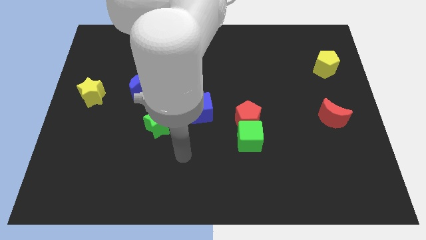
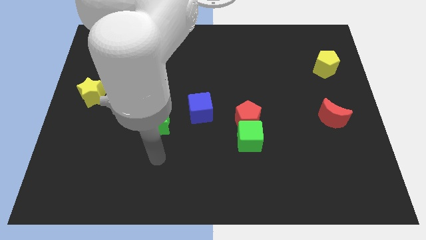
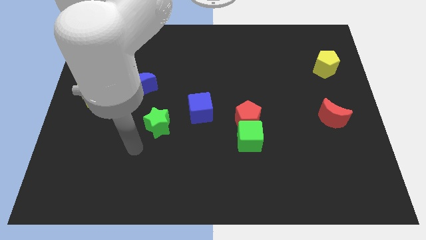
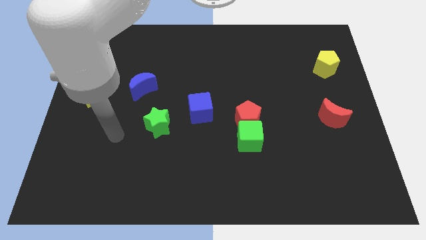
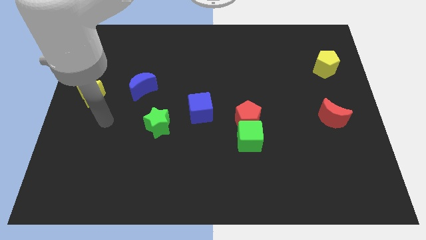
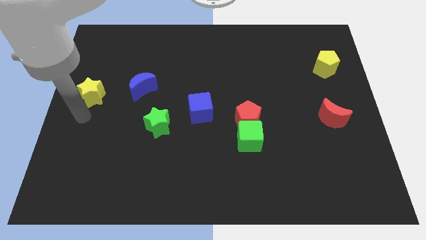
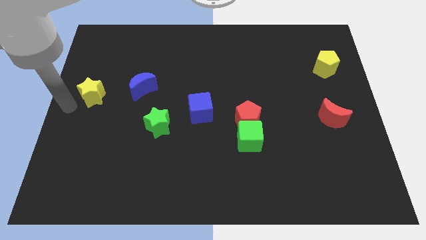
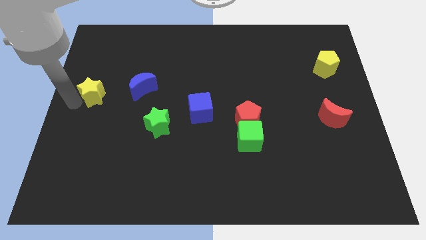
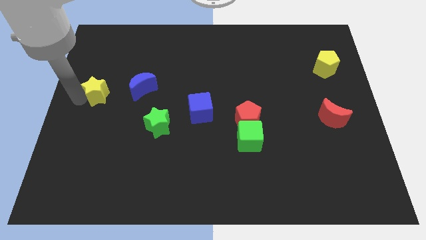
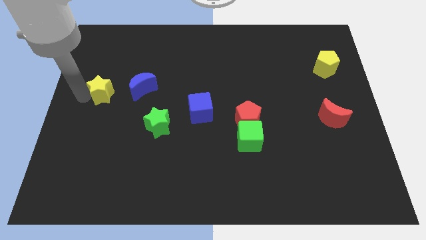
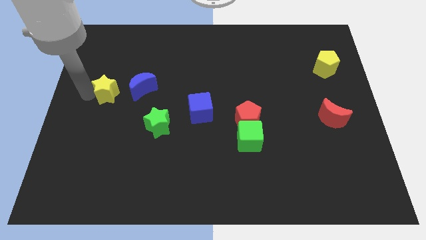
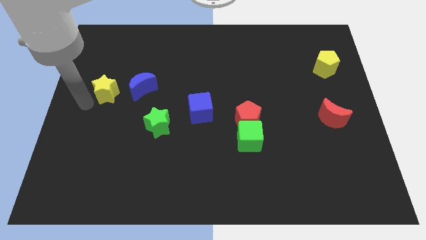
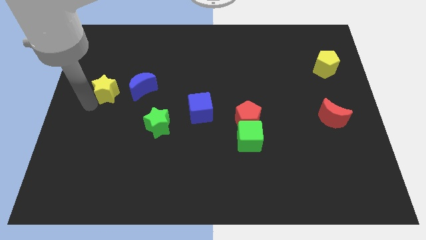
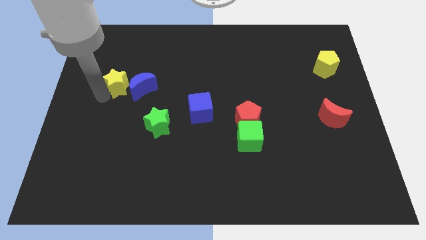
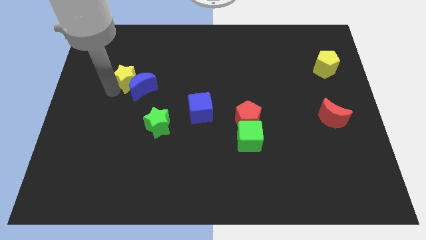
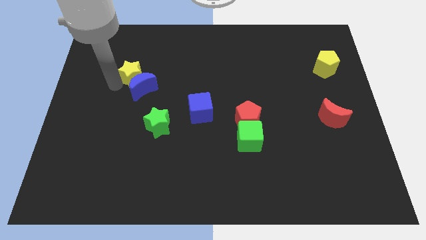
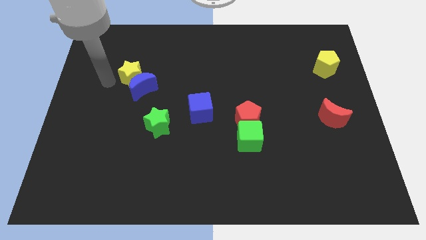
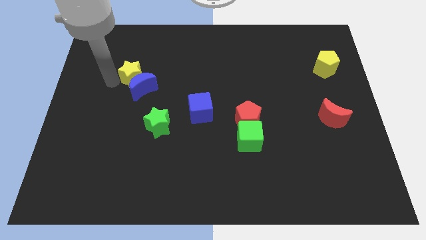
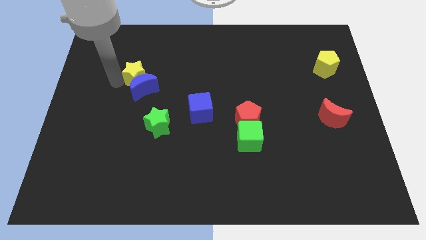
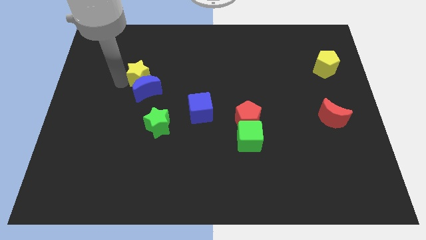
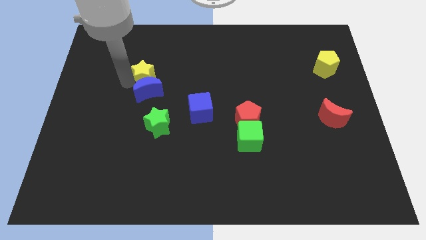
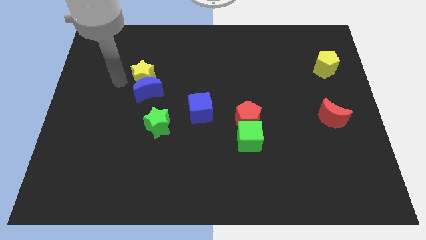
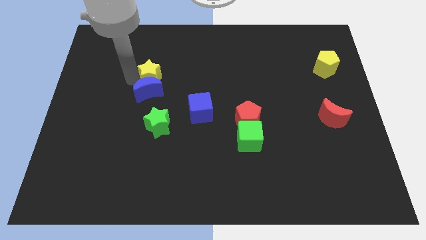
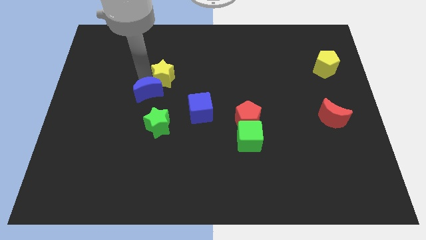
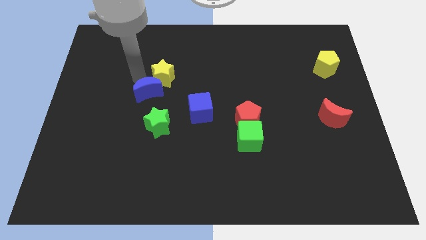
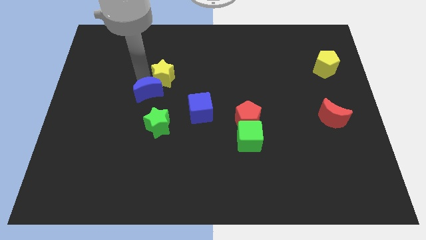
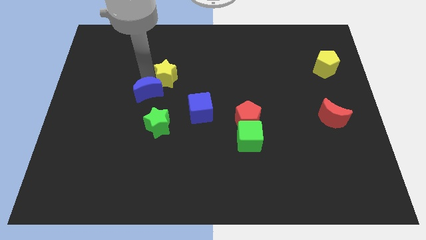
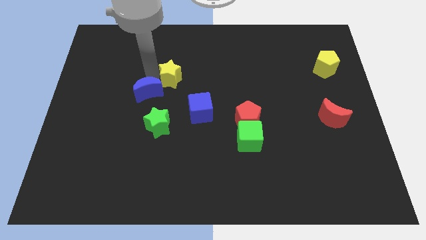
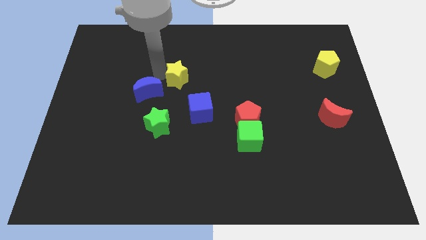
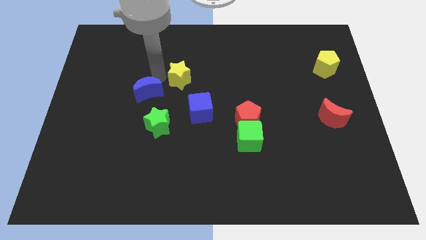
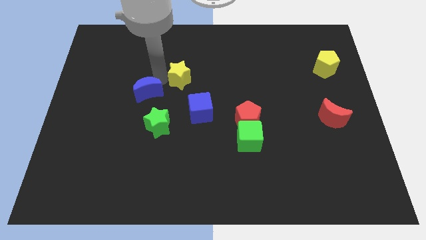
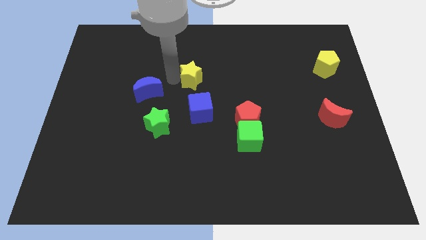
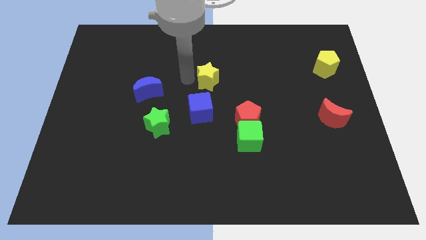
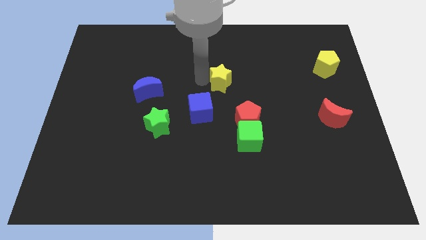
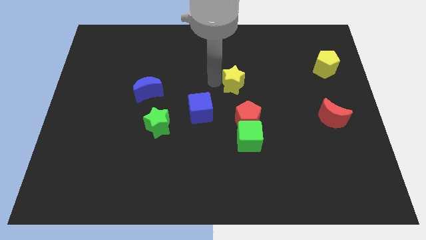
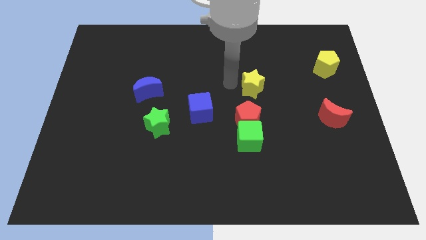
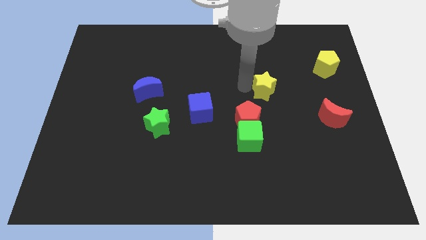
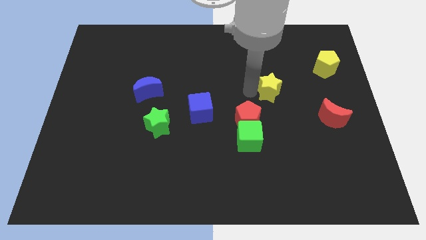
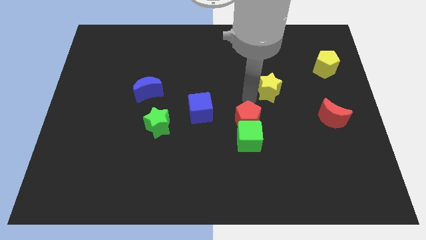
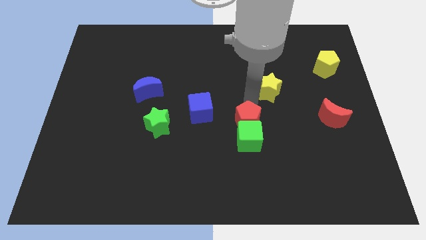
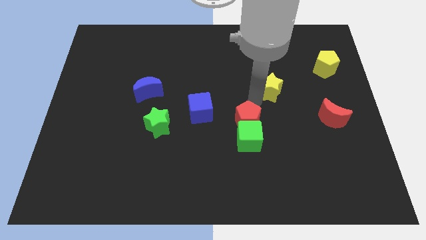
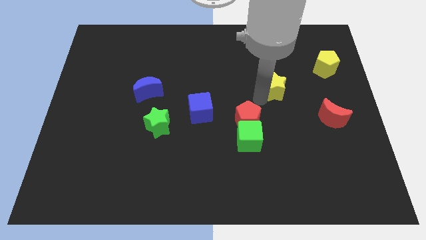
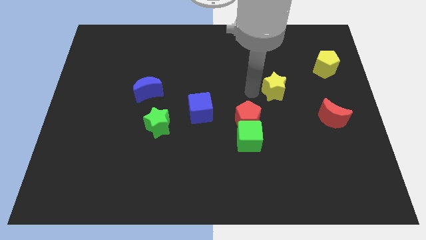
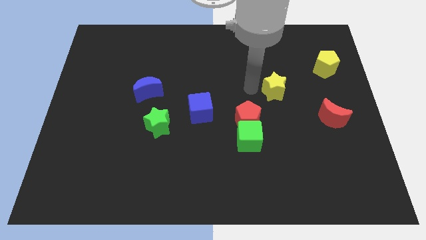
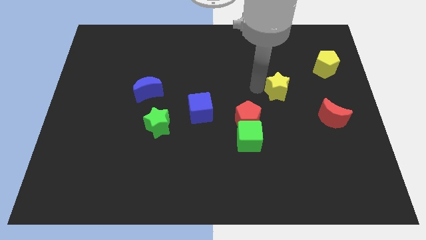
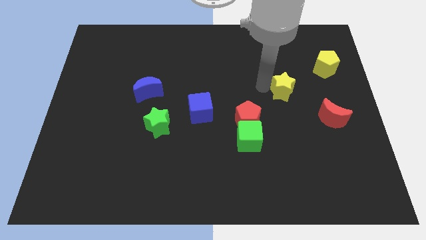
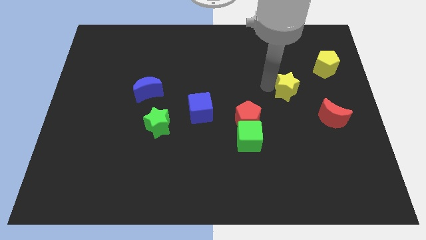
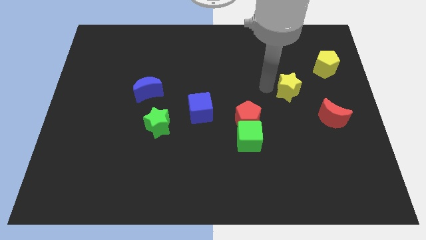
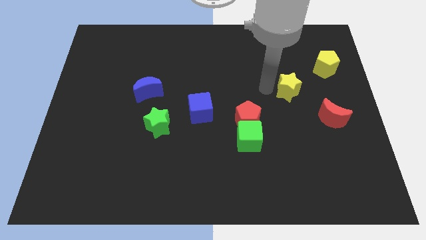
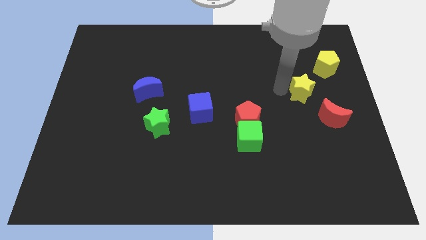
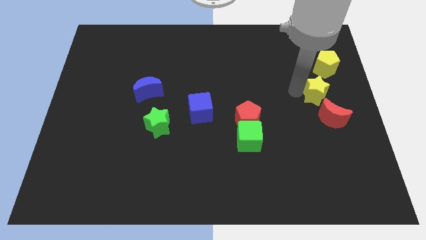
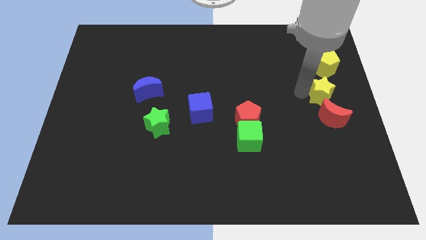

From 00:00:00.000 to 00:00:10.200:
slide the yellow star to the right side

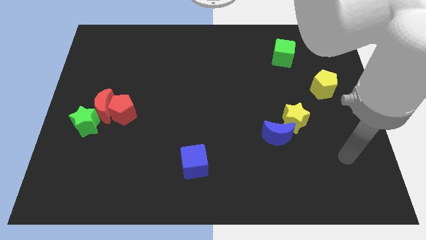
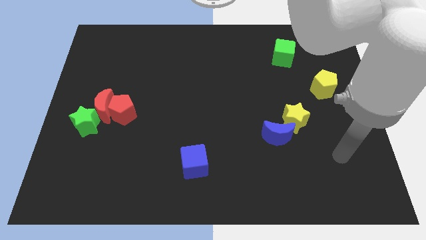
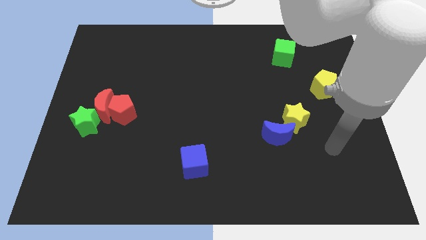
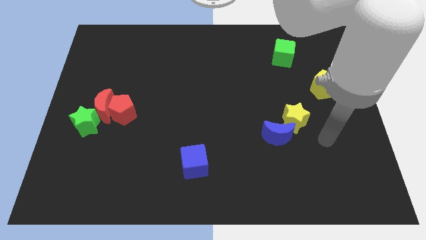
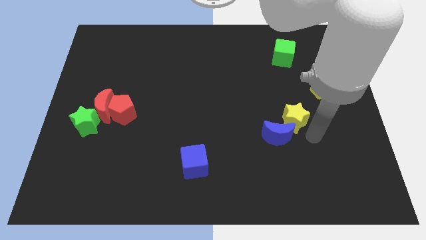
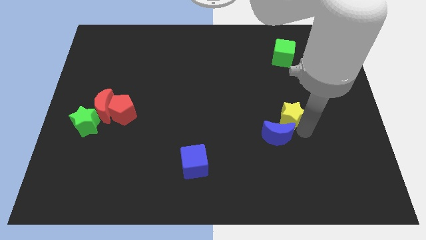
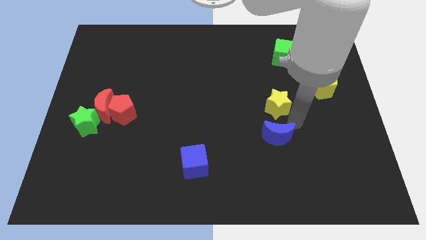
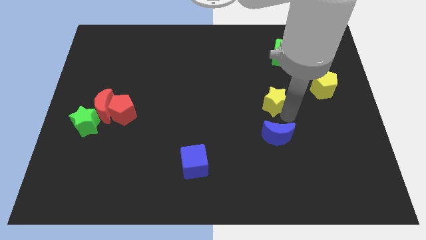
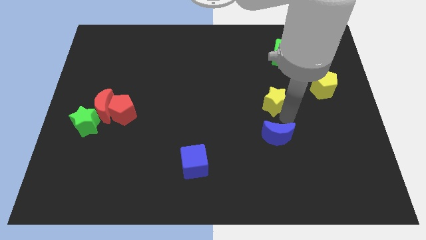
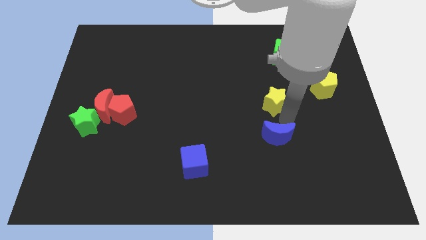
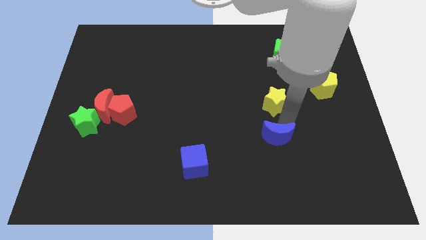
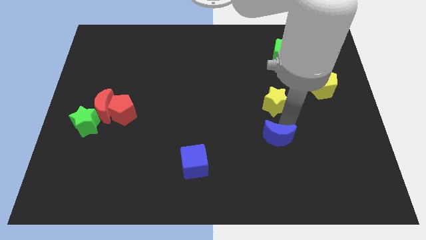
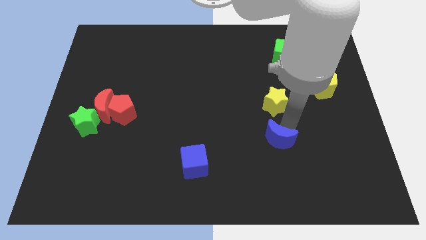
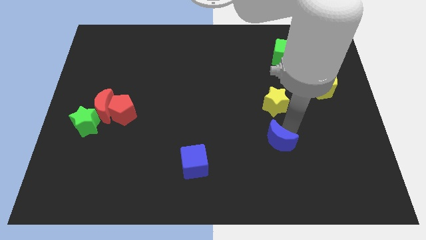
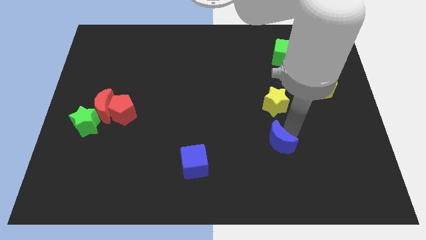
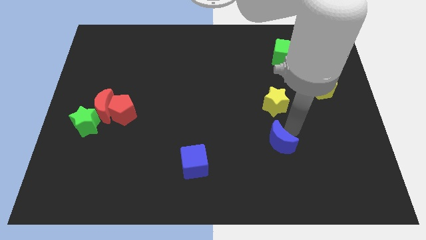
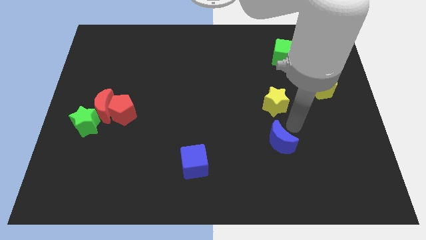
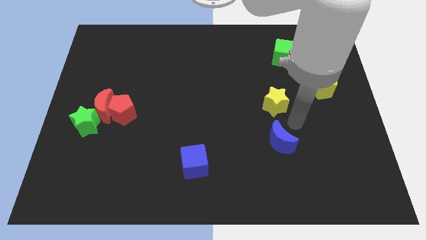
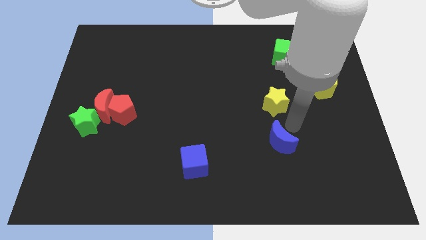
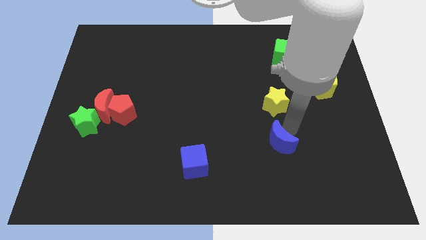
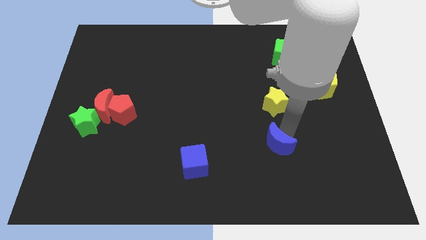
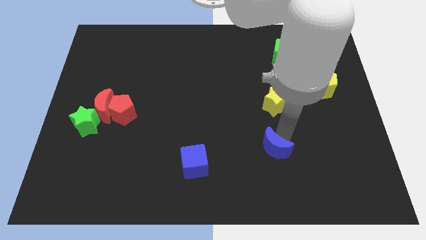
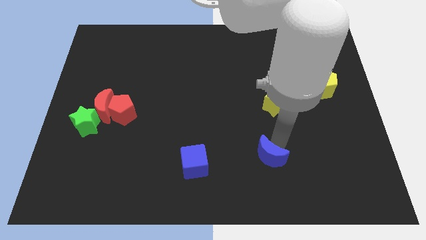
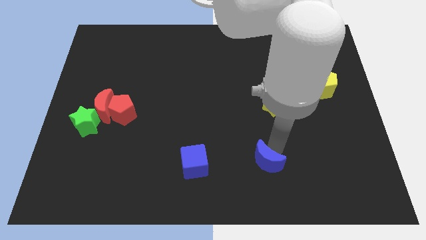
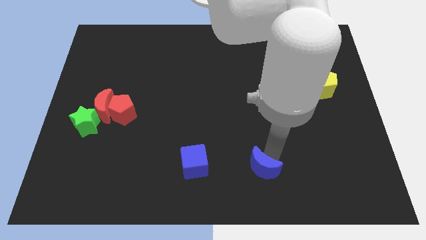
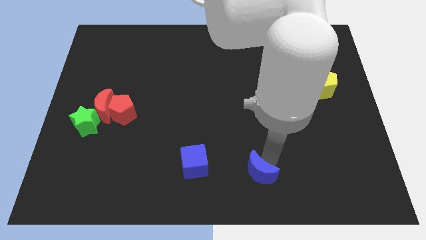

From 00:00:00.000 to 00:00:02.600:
move the blue moon to the bottom
